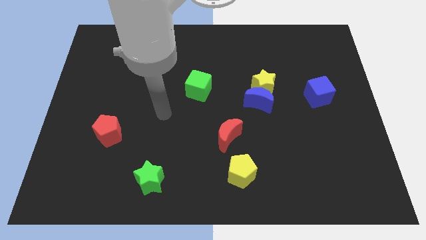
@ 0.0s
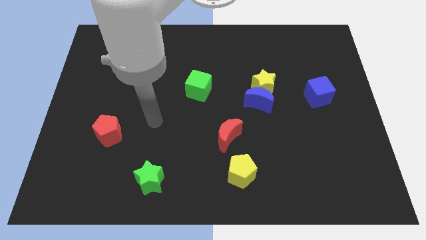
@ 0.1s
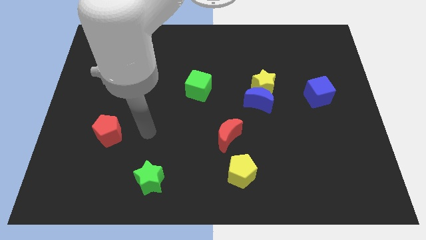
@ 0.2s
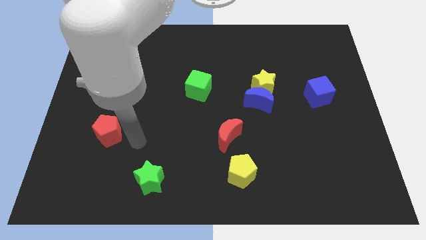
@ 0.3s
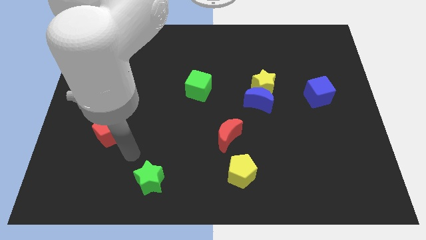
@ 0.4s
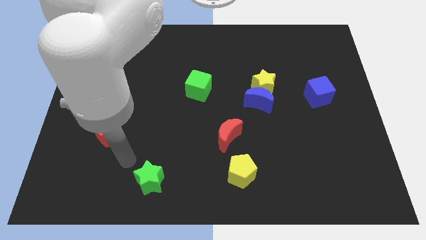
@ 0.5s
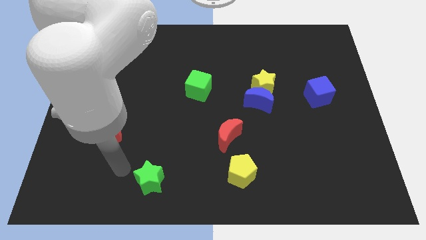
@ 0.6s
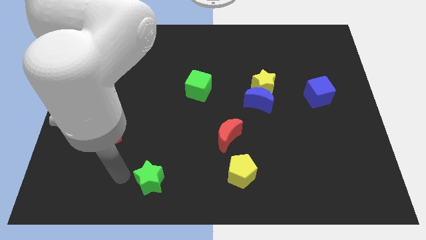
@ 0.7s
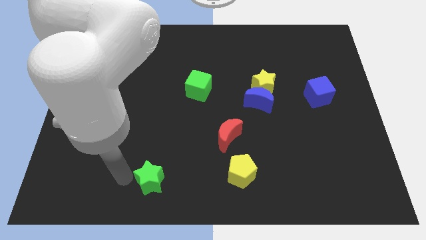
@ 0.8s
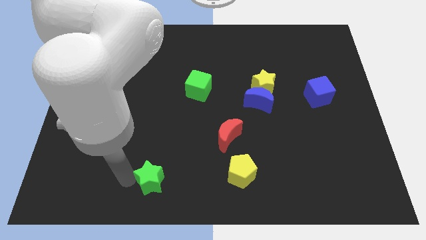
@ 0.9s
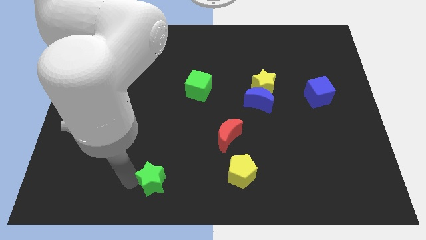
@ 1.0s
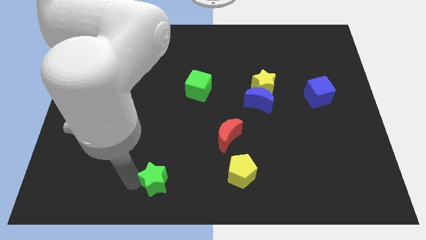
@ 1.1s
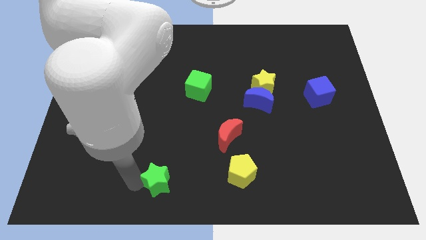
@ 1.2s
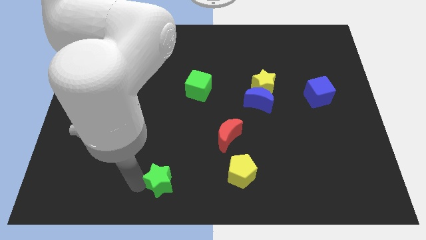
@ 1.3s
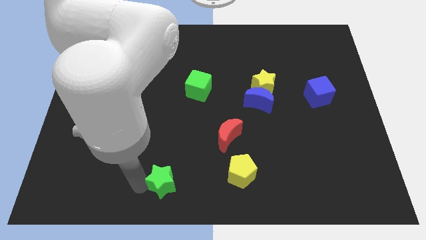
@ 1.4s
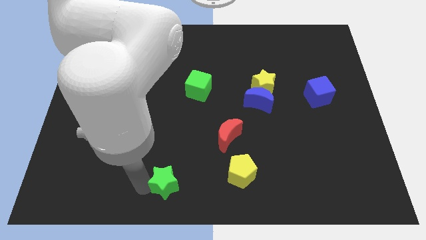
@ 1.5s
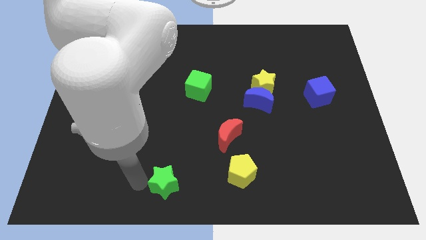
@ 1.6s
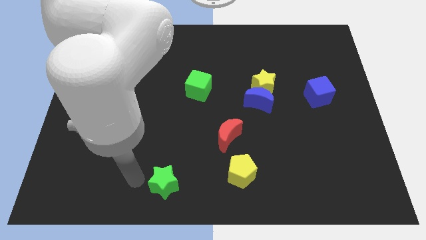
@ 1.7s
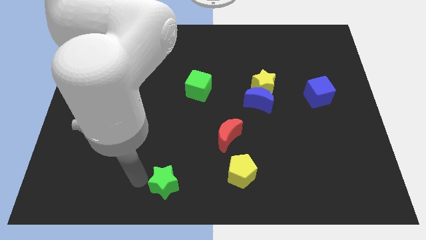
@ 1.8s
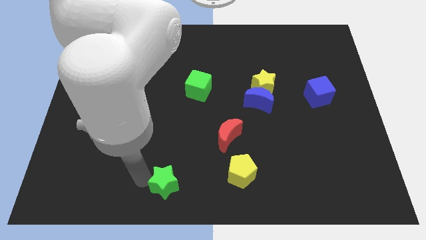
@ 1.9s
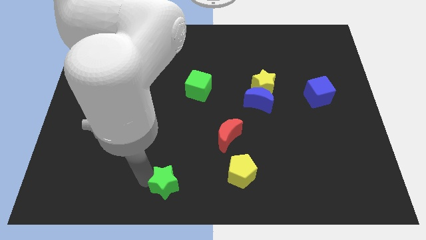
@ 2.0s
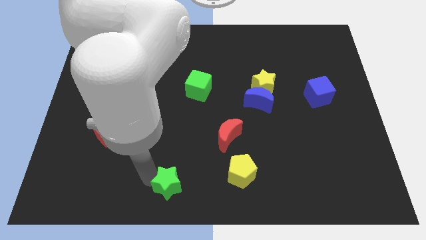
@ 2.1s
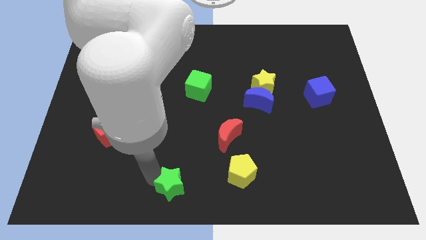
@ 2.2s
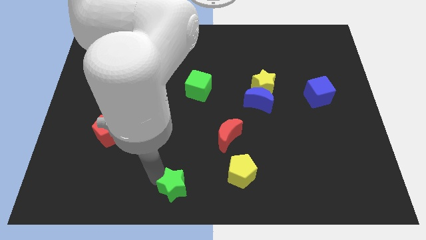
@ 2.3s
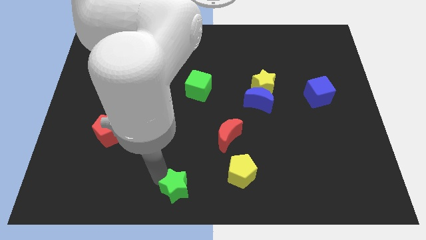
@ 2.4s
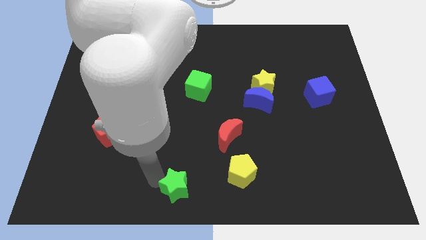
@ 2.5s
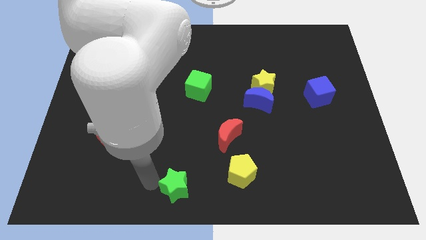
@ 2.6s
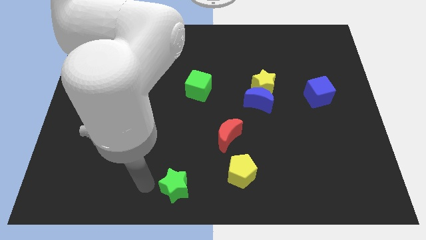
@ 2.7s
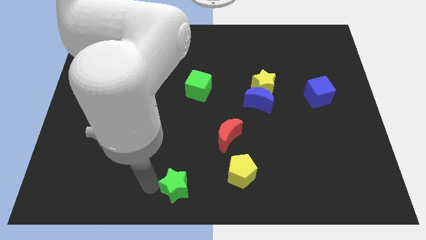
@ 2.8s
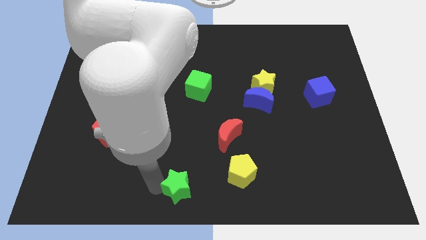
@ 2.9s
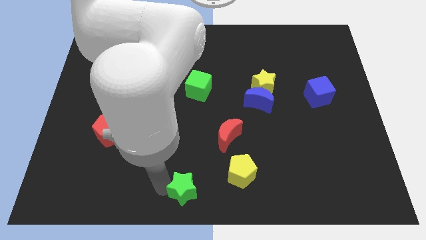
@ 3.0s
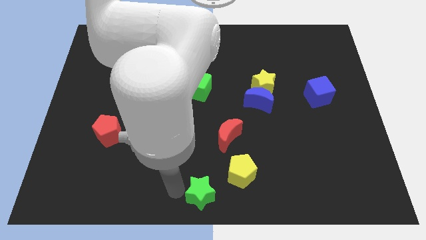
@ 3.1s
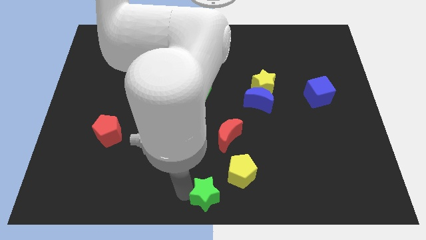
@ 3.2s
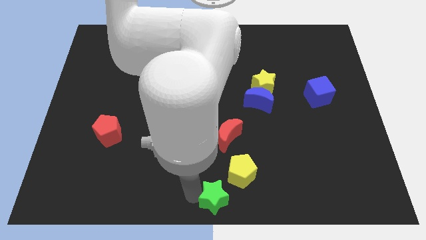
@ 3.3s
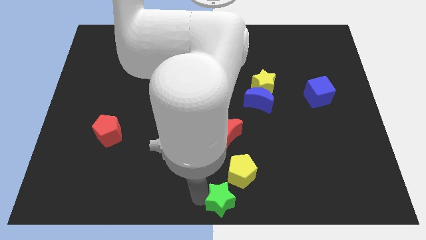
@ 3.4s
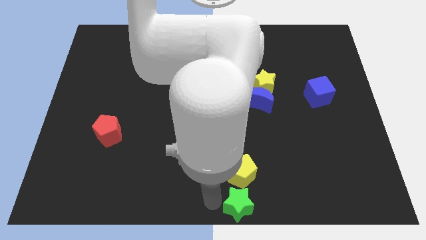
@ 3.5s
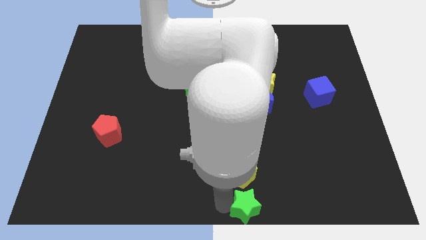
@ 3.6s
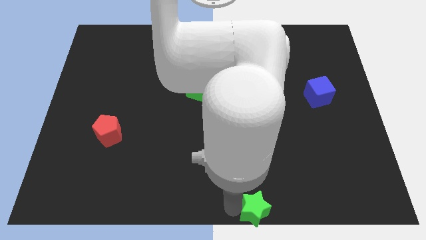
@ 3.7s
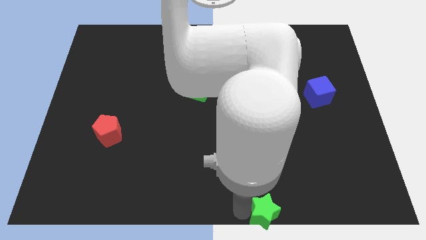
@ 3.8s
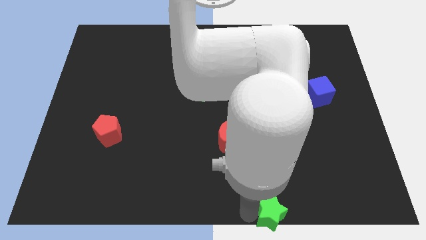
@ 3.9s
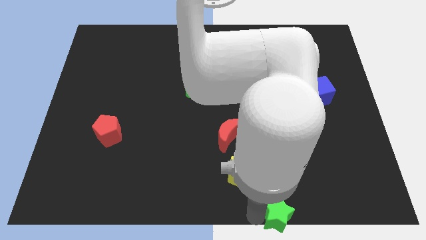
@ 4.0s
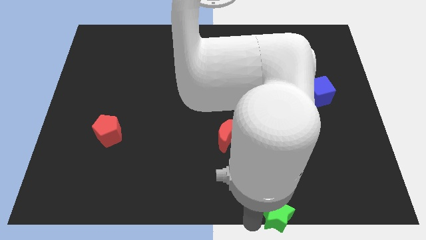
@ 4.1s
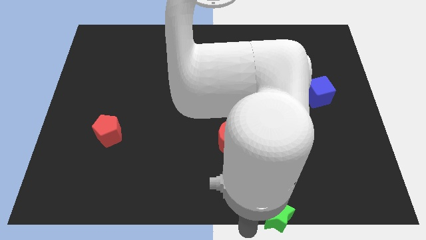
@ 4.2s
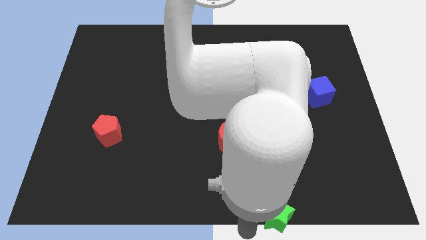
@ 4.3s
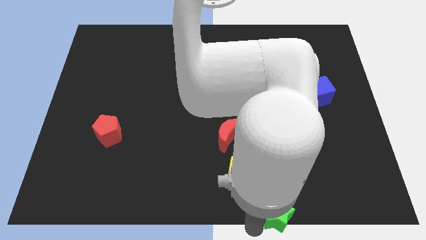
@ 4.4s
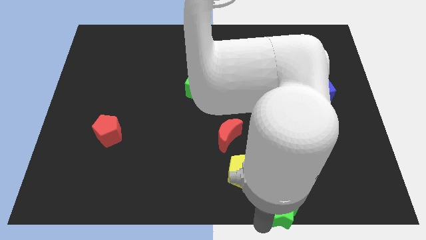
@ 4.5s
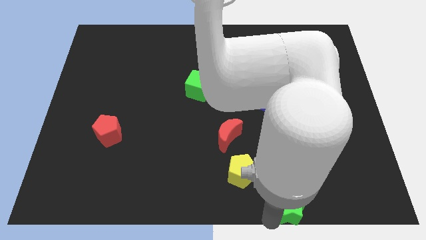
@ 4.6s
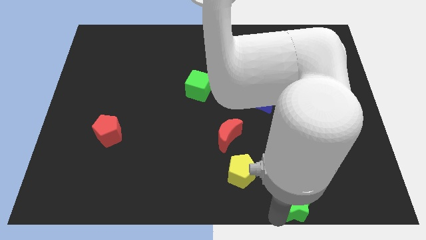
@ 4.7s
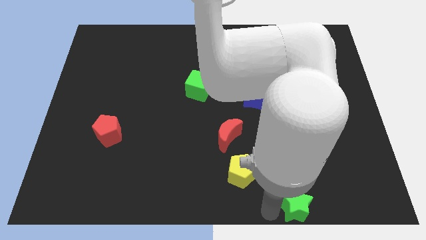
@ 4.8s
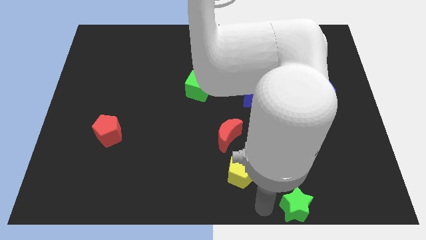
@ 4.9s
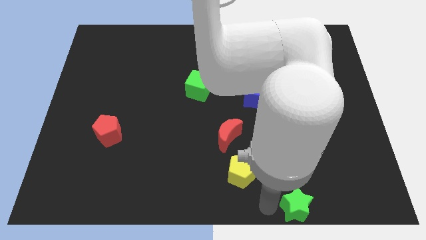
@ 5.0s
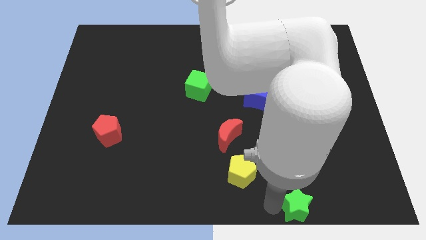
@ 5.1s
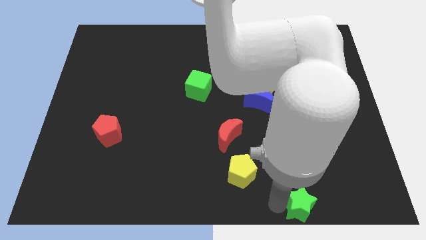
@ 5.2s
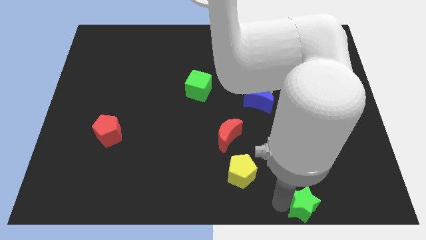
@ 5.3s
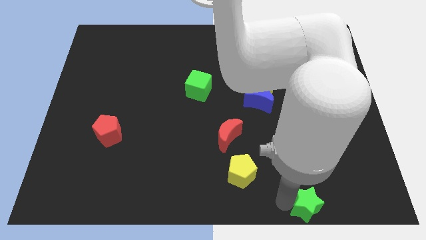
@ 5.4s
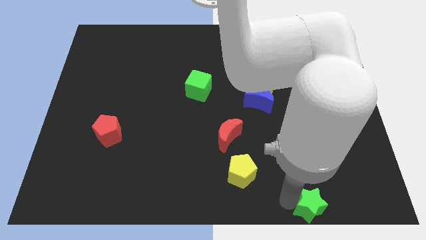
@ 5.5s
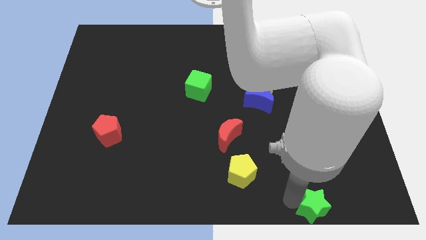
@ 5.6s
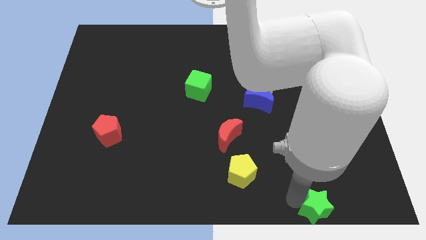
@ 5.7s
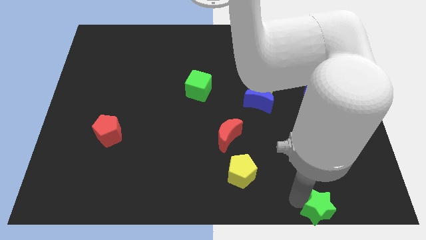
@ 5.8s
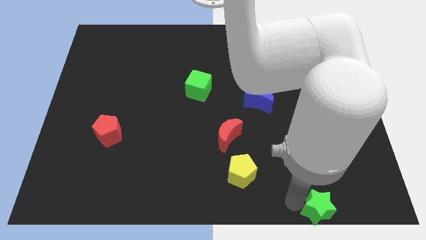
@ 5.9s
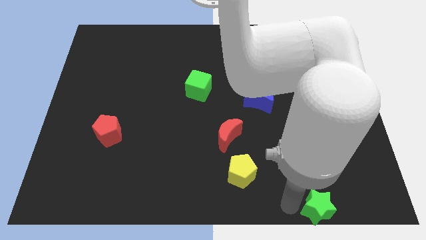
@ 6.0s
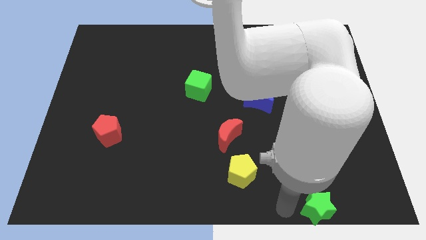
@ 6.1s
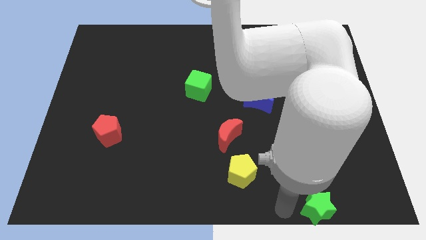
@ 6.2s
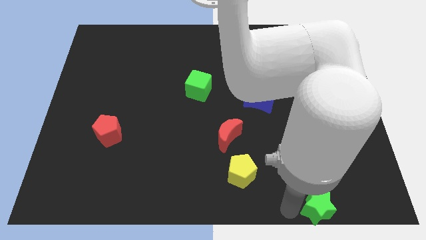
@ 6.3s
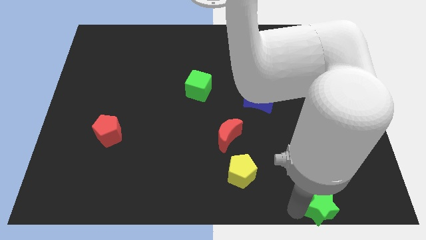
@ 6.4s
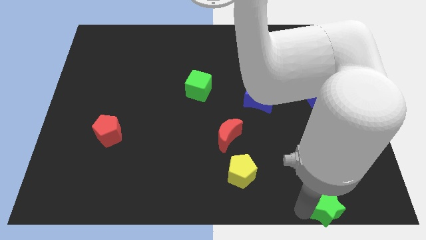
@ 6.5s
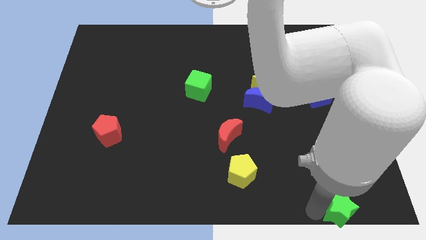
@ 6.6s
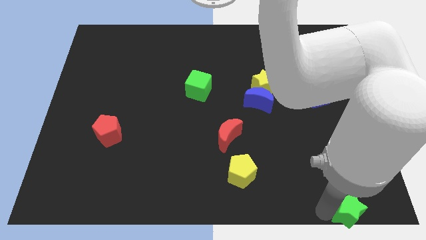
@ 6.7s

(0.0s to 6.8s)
move the green star to the lower right corner
